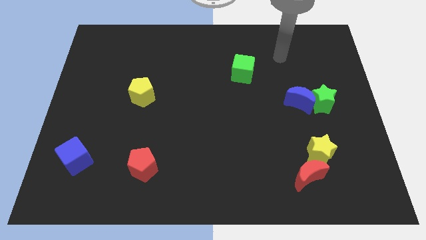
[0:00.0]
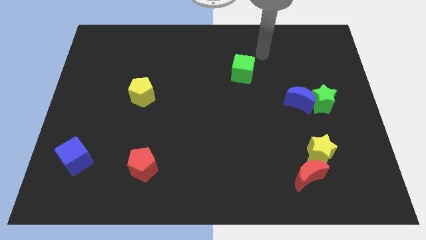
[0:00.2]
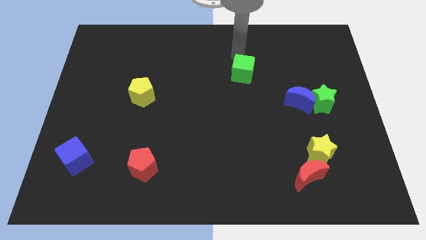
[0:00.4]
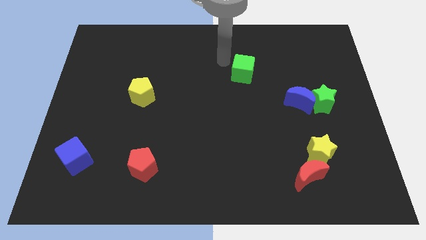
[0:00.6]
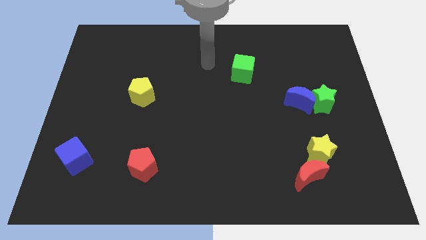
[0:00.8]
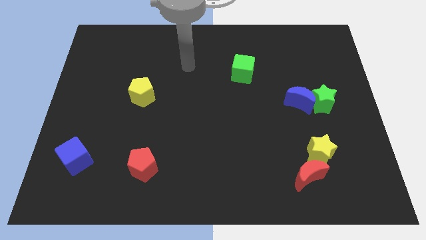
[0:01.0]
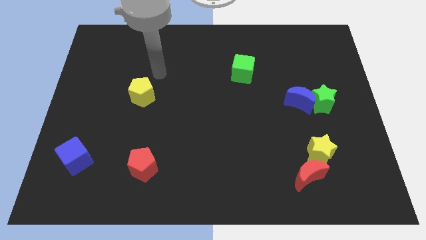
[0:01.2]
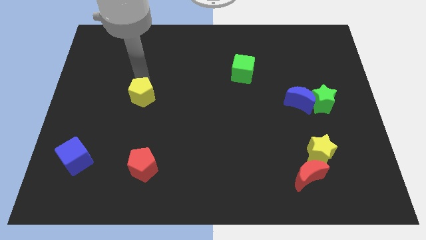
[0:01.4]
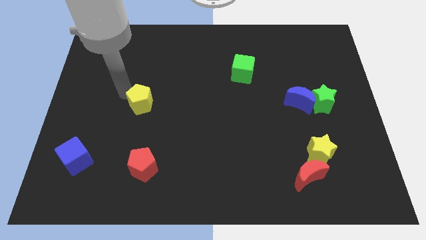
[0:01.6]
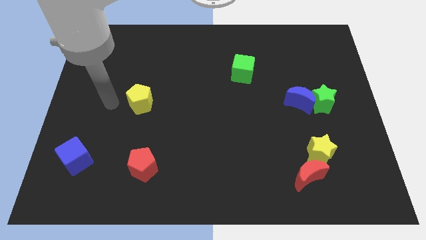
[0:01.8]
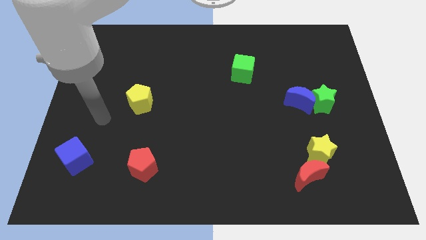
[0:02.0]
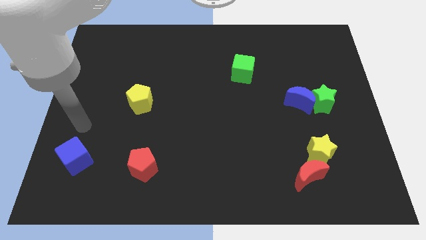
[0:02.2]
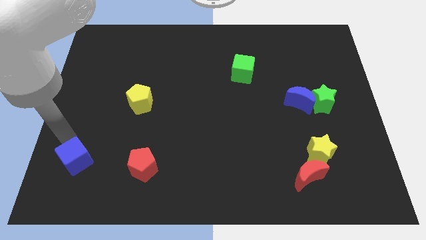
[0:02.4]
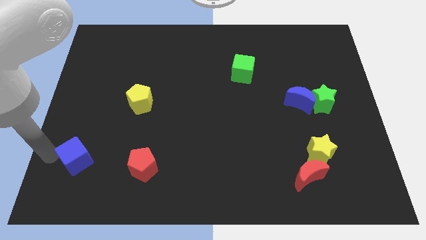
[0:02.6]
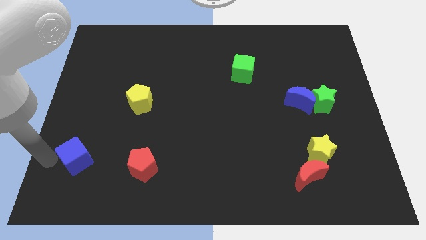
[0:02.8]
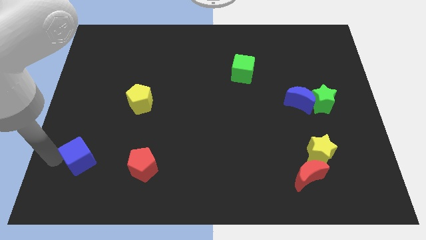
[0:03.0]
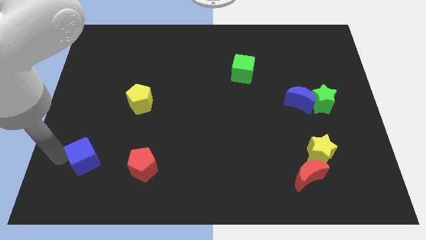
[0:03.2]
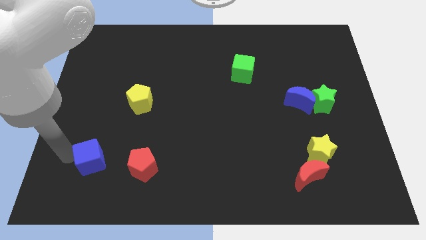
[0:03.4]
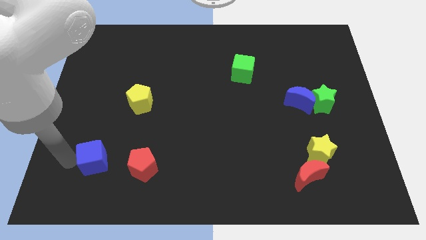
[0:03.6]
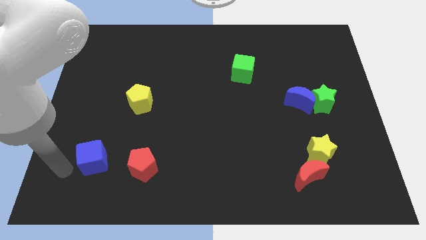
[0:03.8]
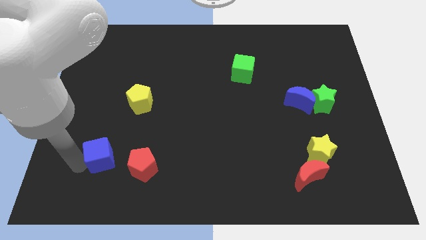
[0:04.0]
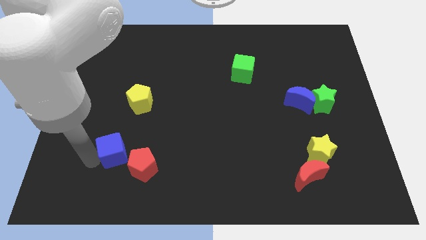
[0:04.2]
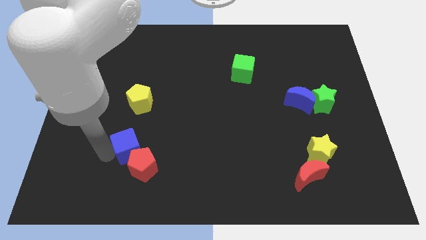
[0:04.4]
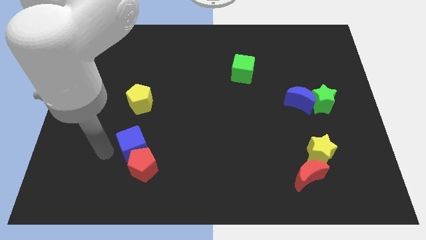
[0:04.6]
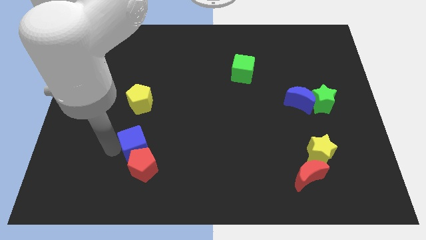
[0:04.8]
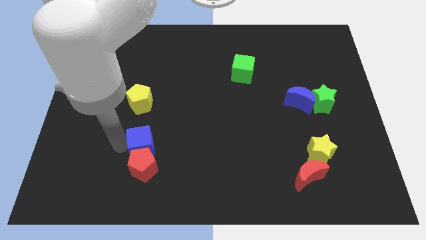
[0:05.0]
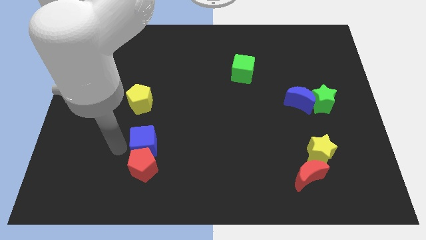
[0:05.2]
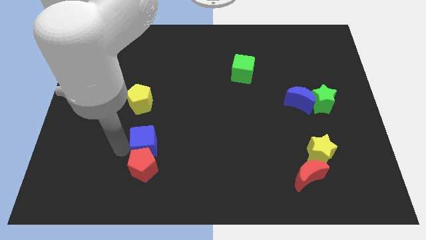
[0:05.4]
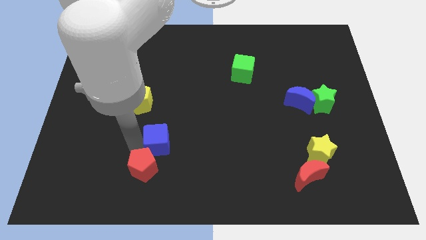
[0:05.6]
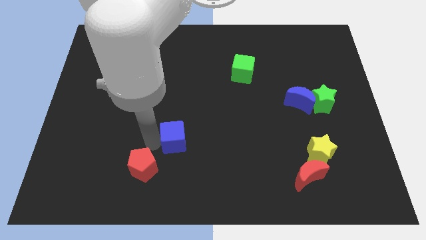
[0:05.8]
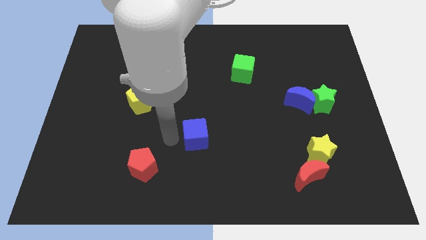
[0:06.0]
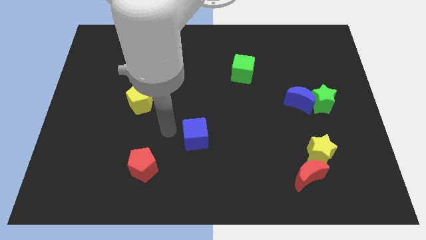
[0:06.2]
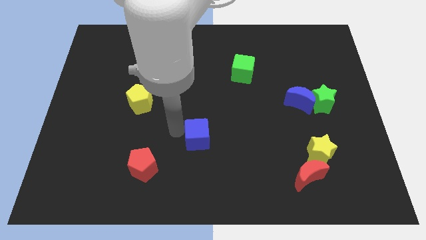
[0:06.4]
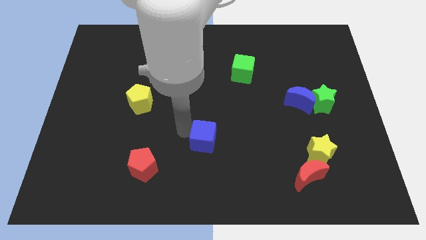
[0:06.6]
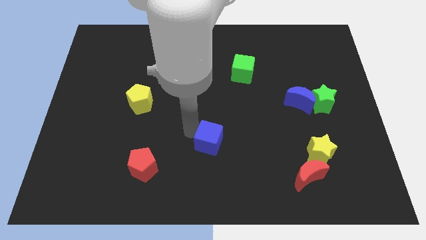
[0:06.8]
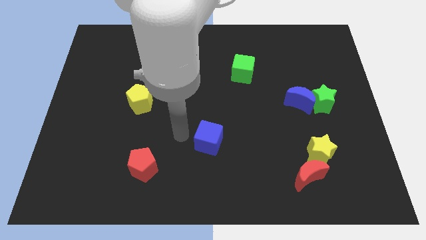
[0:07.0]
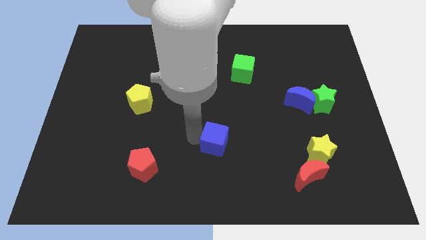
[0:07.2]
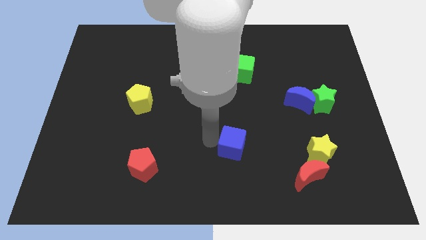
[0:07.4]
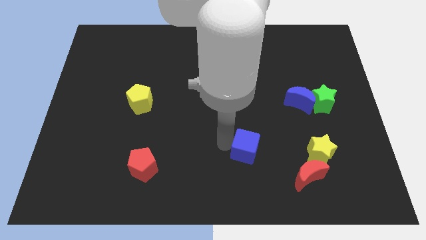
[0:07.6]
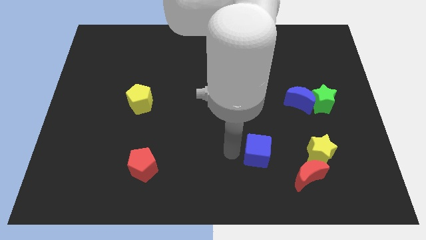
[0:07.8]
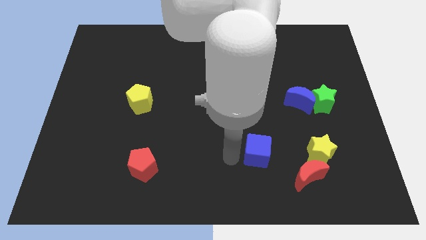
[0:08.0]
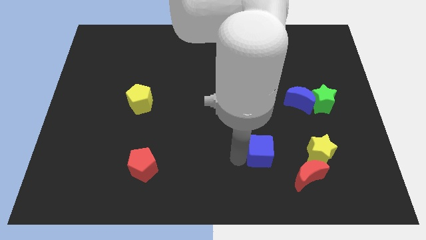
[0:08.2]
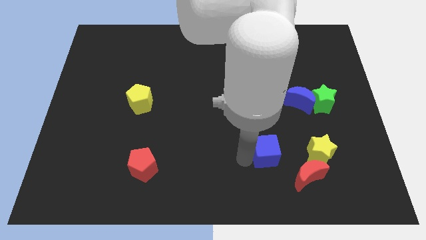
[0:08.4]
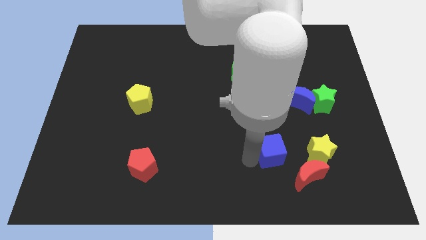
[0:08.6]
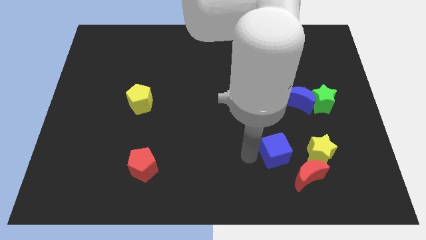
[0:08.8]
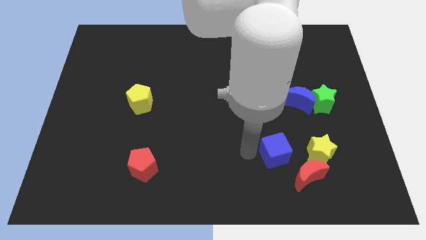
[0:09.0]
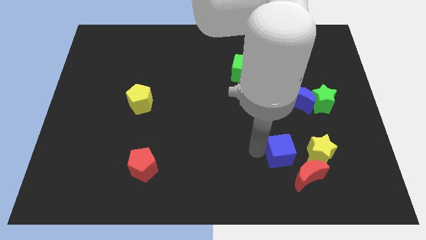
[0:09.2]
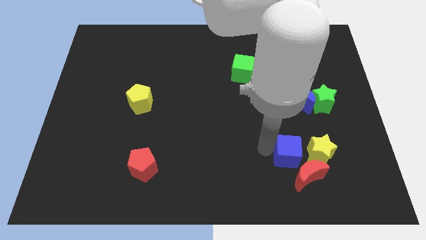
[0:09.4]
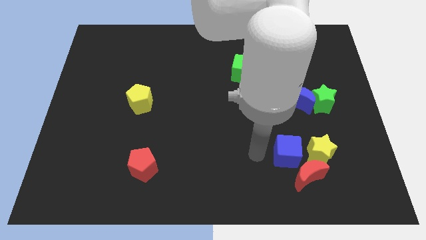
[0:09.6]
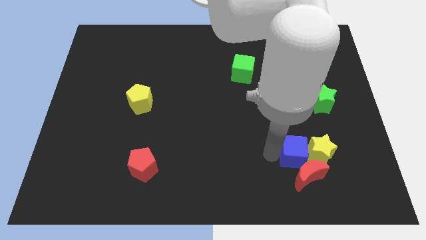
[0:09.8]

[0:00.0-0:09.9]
push the blue cube towards the yellow star

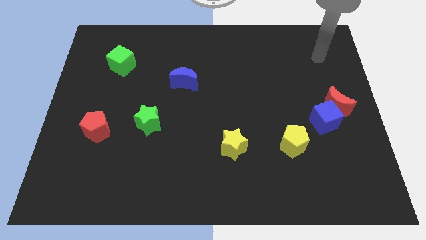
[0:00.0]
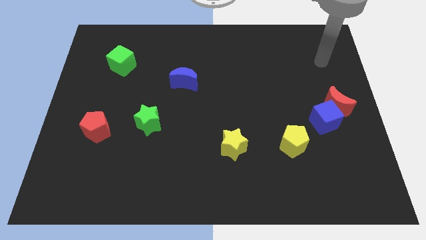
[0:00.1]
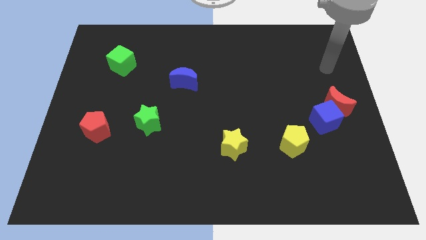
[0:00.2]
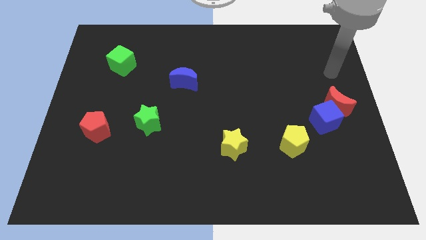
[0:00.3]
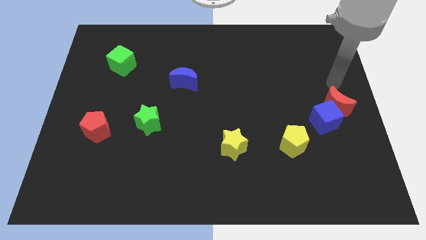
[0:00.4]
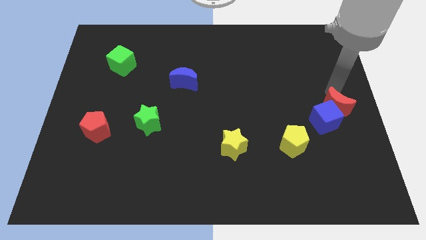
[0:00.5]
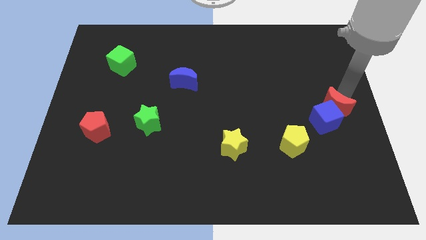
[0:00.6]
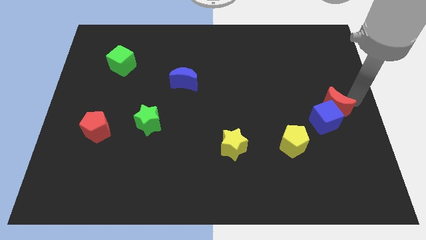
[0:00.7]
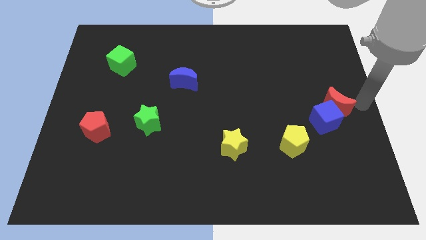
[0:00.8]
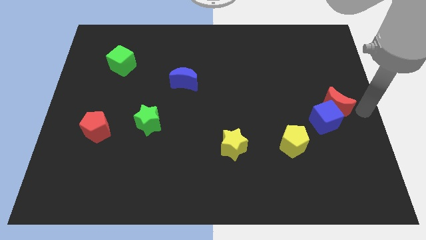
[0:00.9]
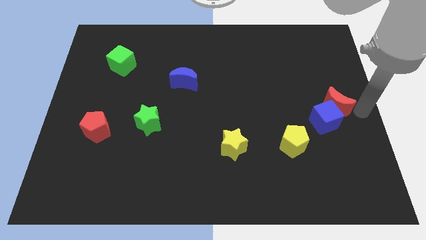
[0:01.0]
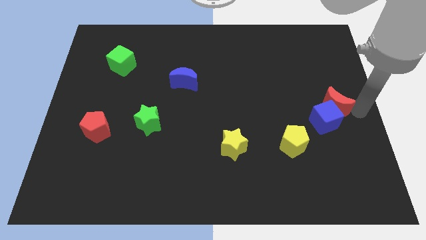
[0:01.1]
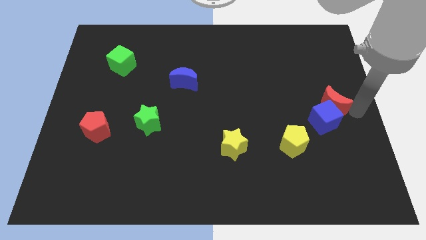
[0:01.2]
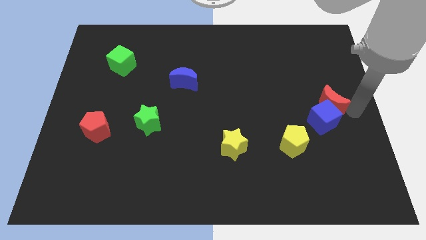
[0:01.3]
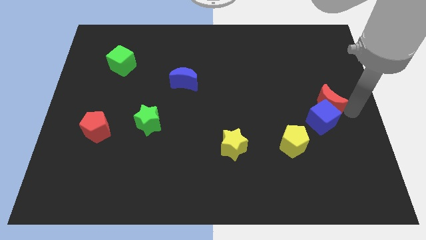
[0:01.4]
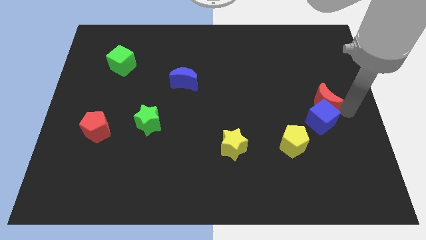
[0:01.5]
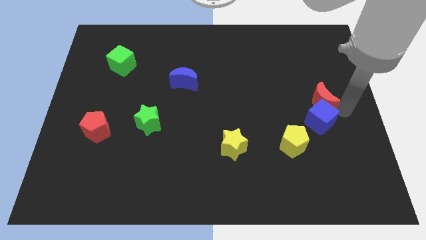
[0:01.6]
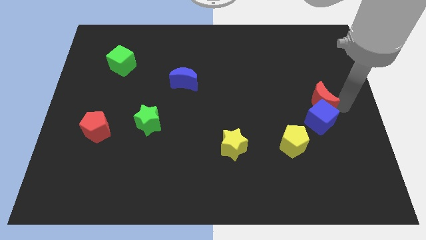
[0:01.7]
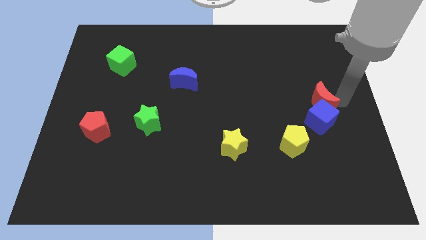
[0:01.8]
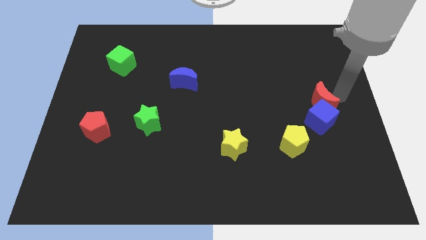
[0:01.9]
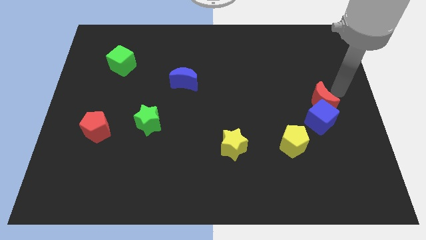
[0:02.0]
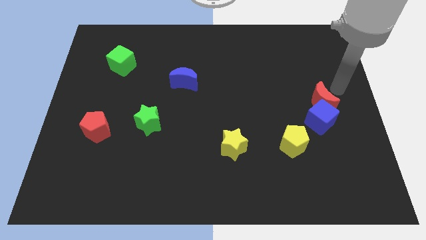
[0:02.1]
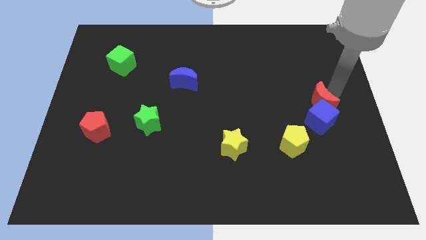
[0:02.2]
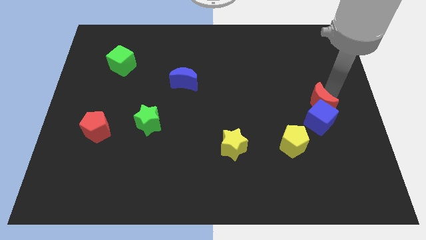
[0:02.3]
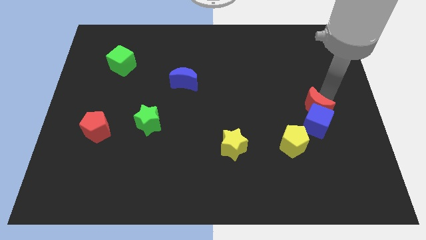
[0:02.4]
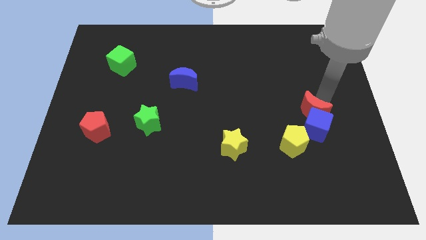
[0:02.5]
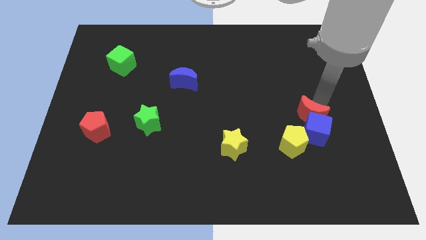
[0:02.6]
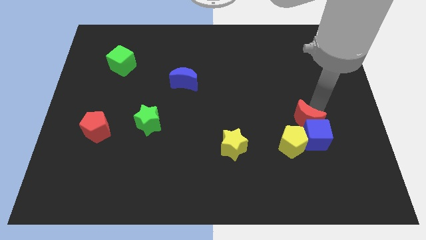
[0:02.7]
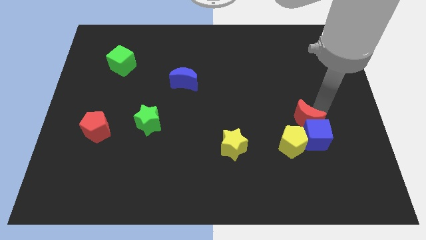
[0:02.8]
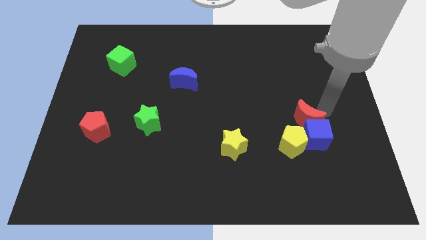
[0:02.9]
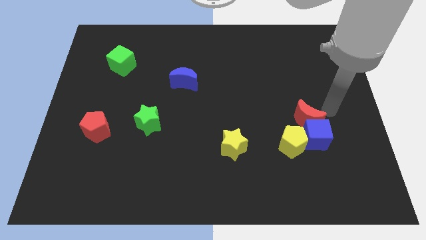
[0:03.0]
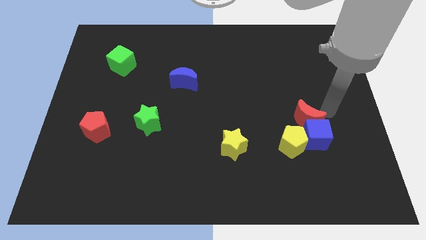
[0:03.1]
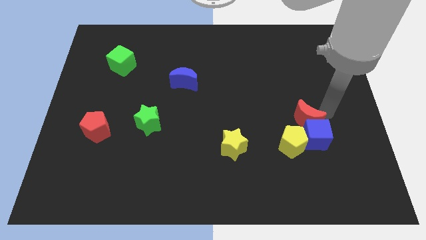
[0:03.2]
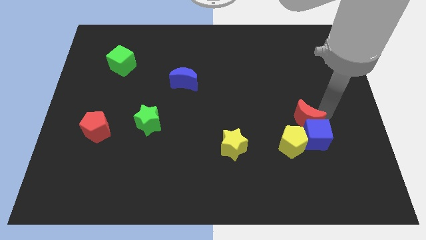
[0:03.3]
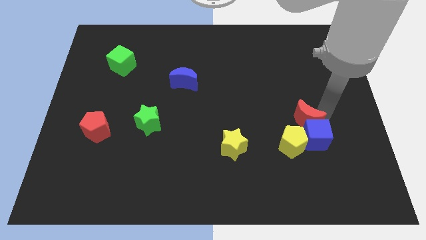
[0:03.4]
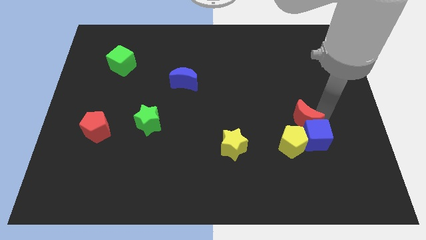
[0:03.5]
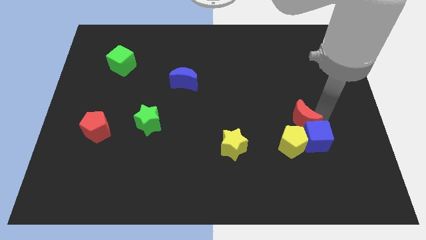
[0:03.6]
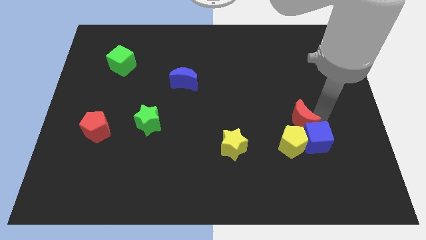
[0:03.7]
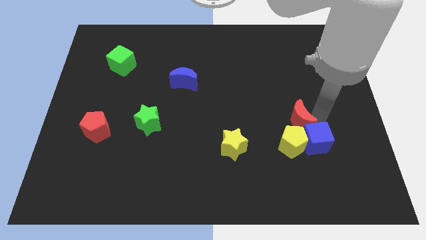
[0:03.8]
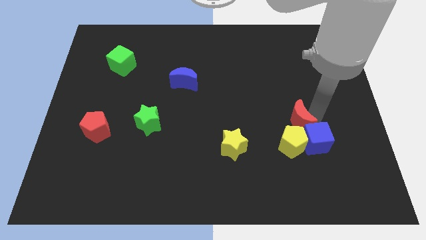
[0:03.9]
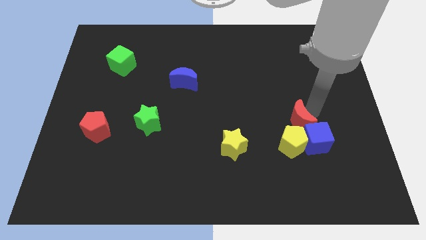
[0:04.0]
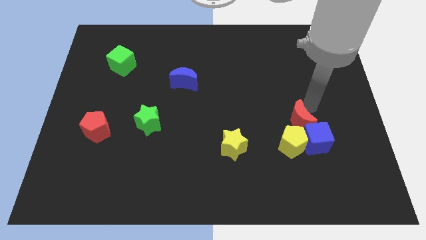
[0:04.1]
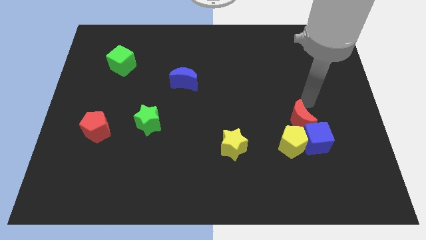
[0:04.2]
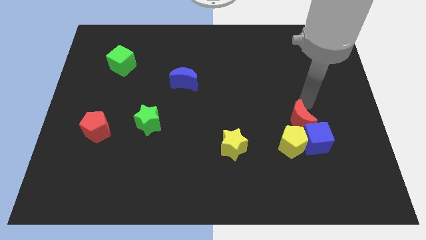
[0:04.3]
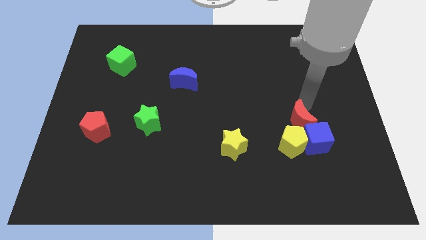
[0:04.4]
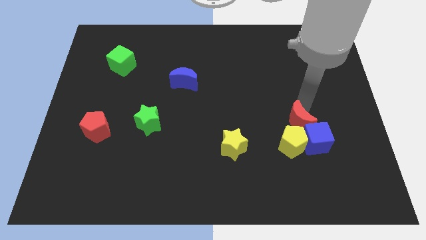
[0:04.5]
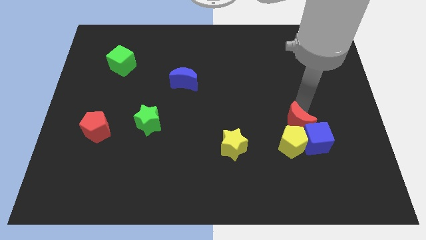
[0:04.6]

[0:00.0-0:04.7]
move the red moon towards the yellow pentagon
